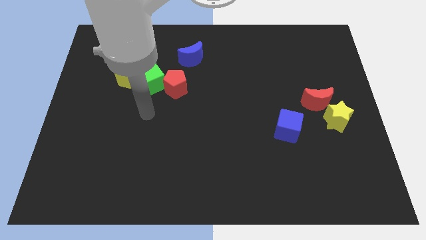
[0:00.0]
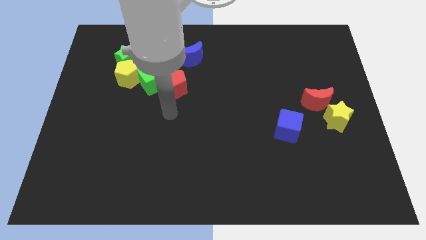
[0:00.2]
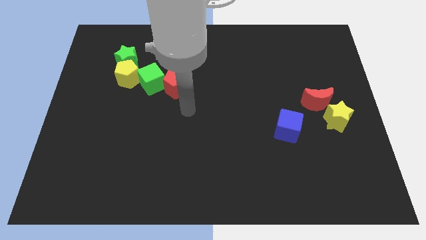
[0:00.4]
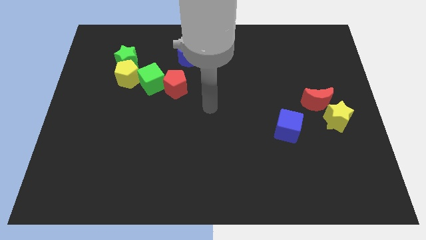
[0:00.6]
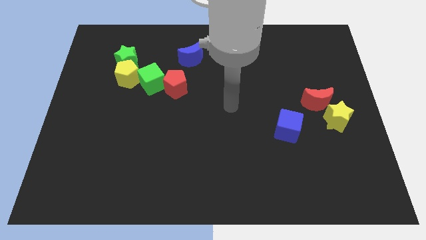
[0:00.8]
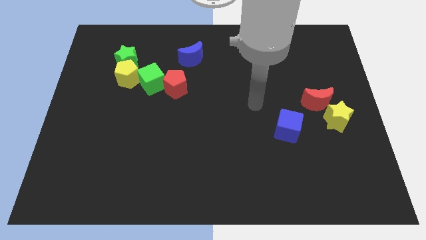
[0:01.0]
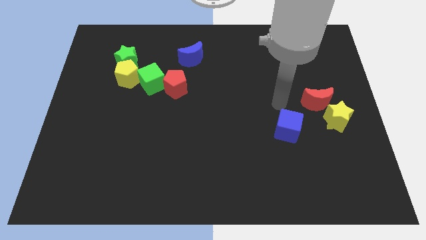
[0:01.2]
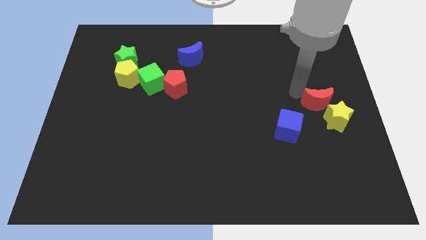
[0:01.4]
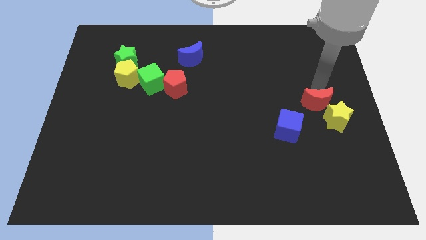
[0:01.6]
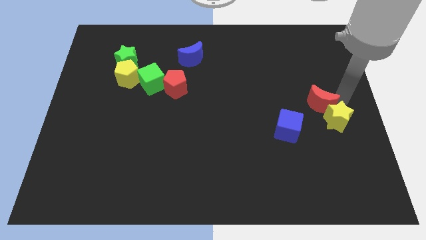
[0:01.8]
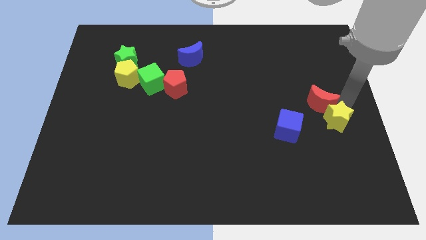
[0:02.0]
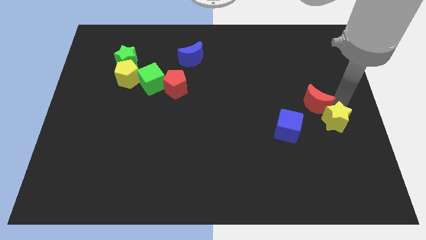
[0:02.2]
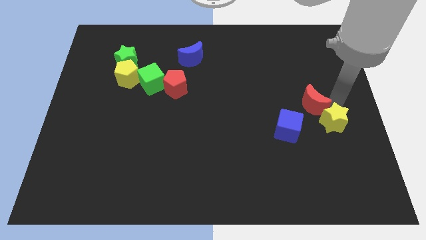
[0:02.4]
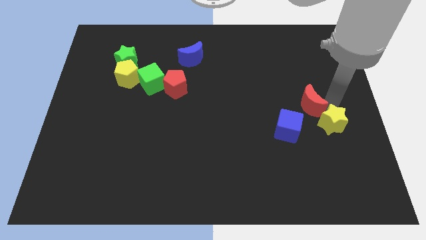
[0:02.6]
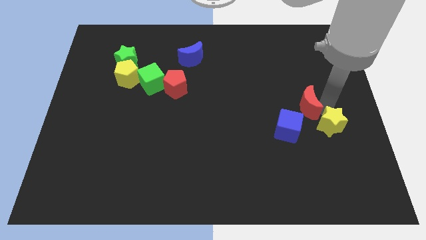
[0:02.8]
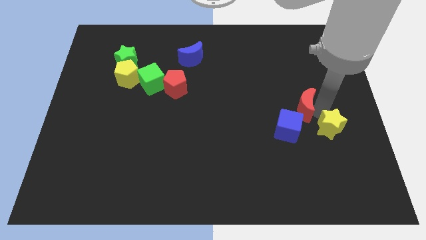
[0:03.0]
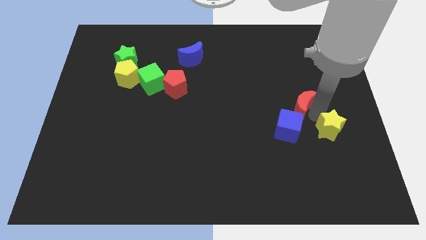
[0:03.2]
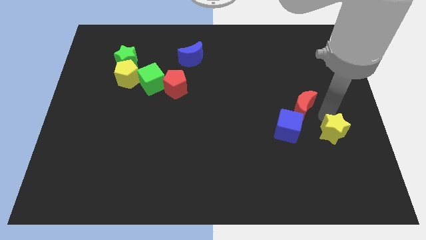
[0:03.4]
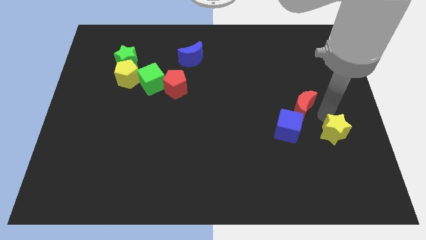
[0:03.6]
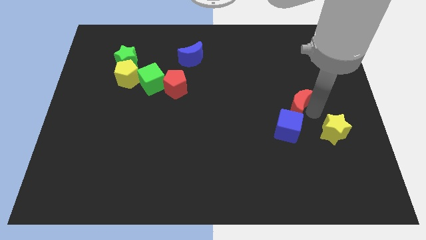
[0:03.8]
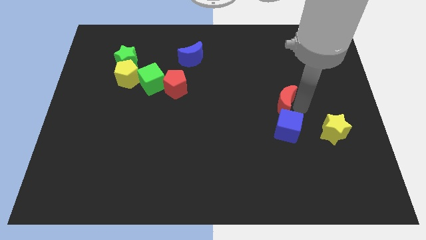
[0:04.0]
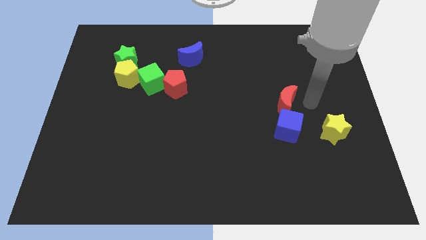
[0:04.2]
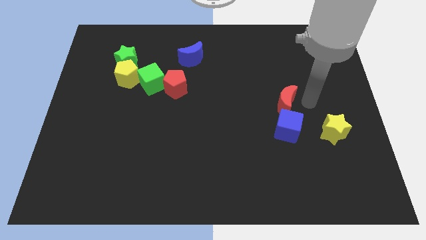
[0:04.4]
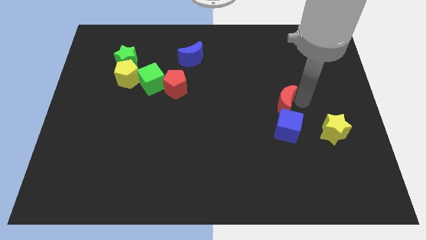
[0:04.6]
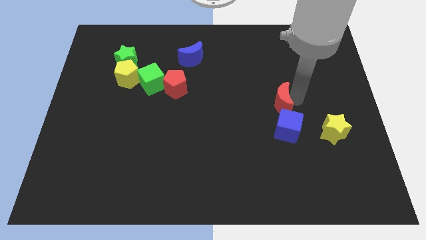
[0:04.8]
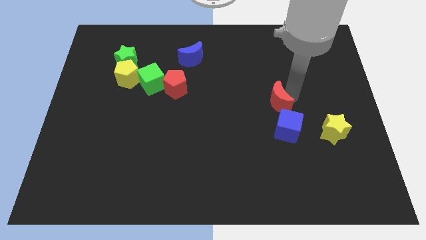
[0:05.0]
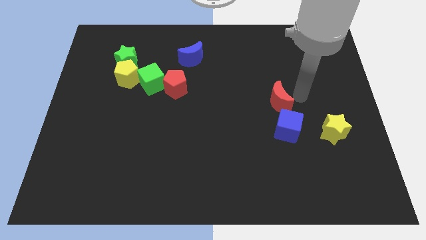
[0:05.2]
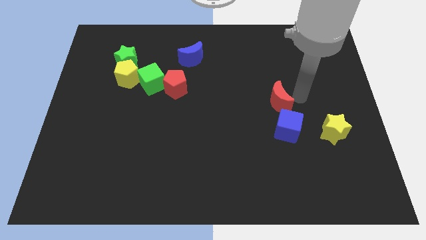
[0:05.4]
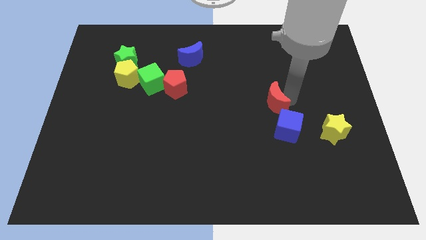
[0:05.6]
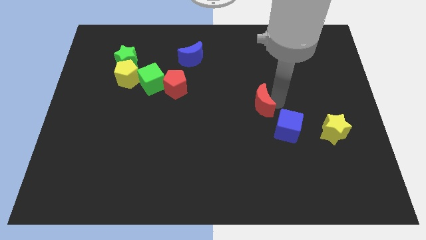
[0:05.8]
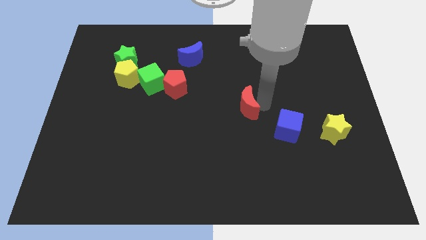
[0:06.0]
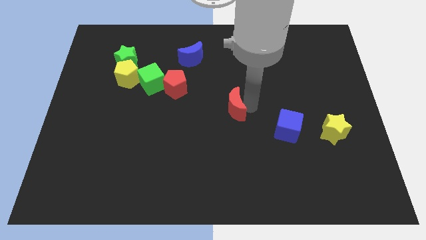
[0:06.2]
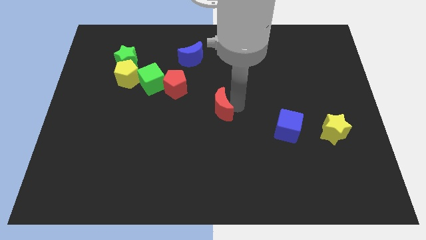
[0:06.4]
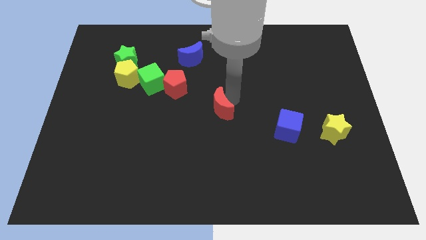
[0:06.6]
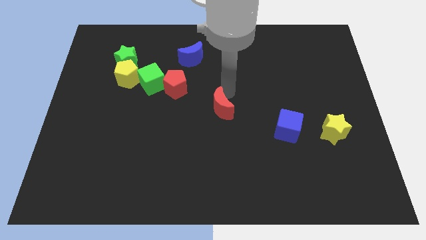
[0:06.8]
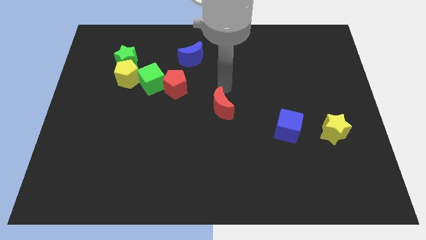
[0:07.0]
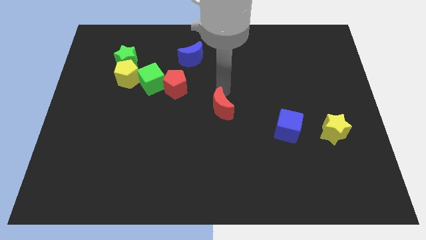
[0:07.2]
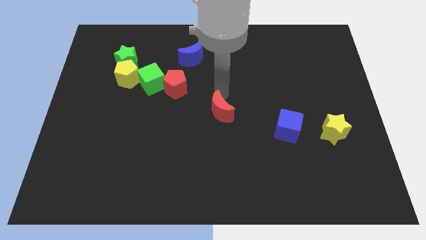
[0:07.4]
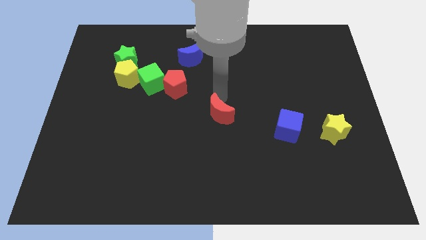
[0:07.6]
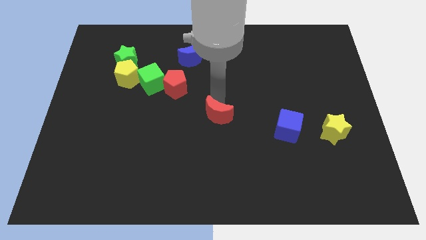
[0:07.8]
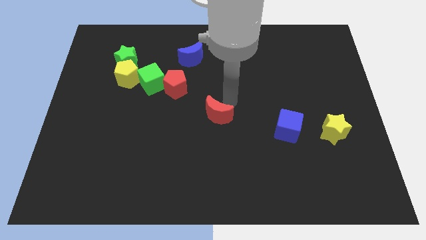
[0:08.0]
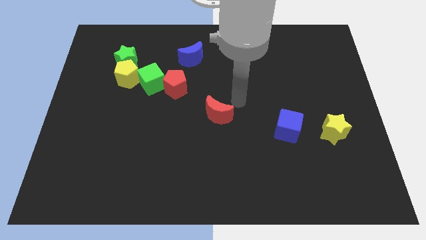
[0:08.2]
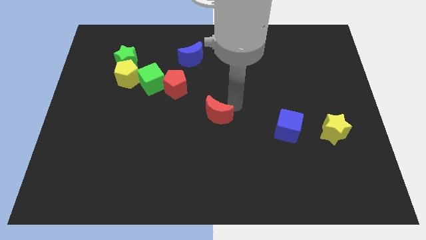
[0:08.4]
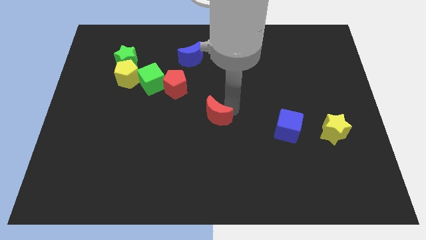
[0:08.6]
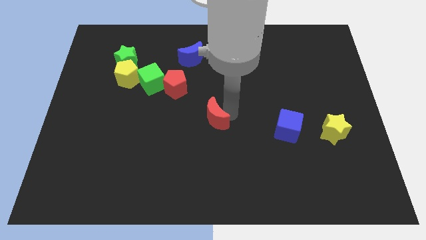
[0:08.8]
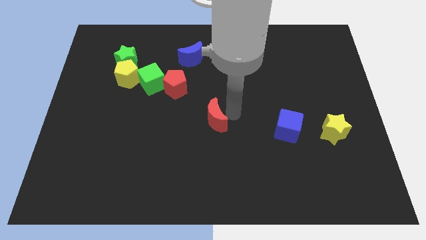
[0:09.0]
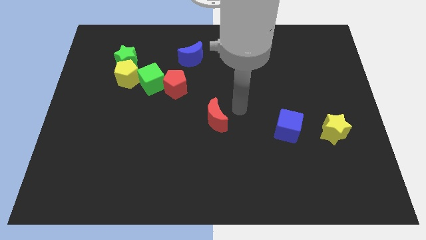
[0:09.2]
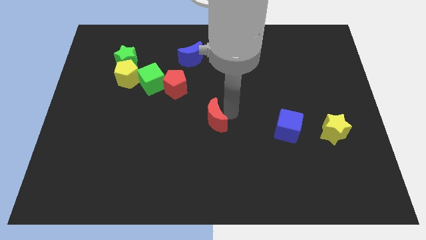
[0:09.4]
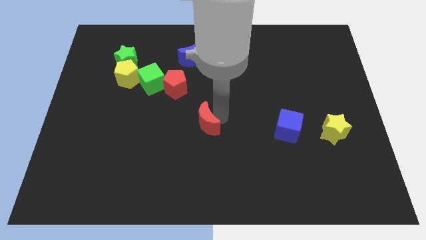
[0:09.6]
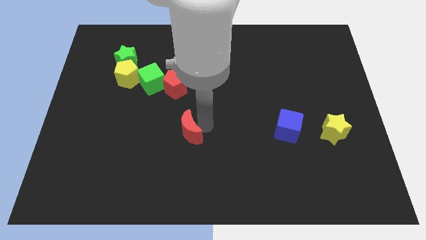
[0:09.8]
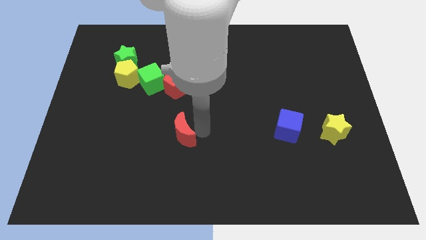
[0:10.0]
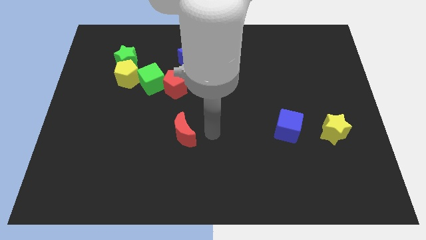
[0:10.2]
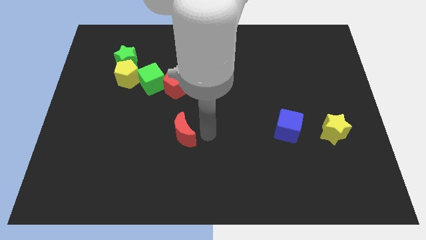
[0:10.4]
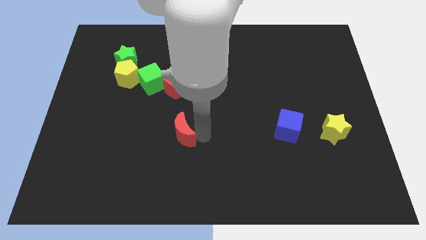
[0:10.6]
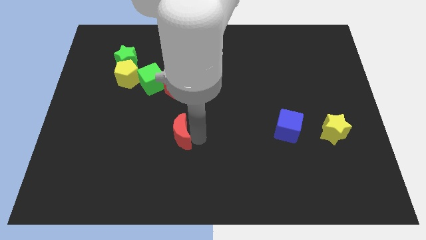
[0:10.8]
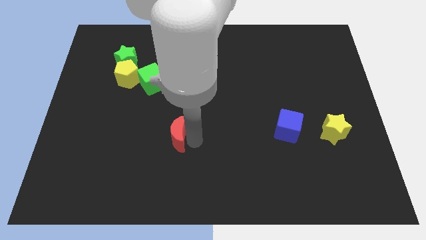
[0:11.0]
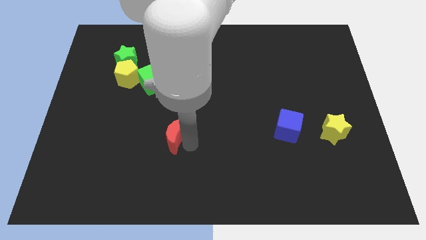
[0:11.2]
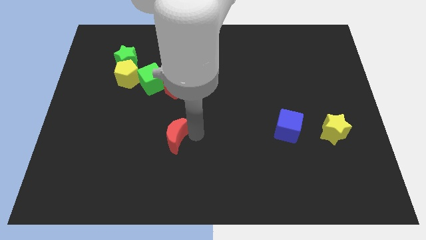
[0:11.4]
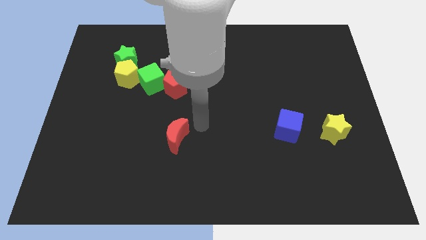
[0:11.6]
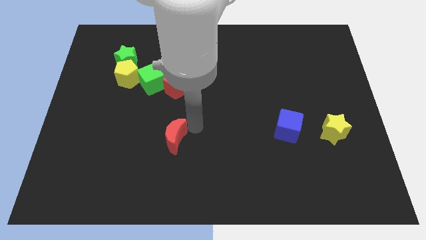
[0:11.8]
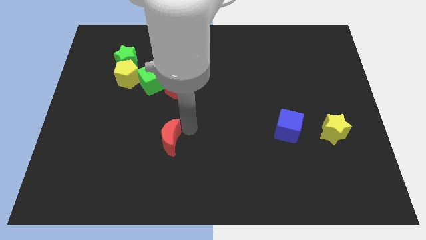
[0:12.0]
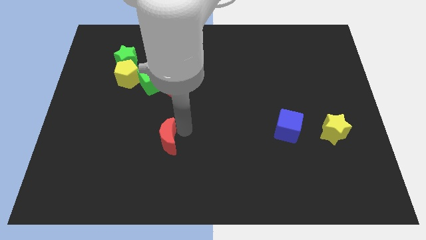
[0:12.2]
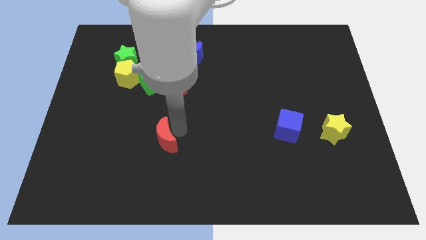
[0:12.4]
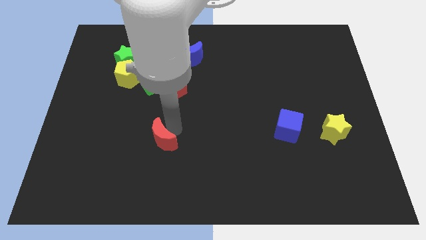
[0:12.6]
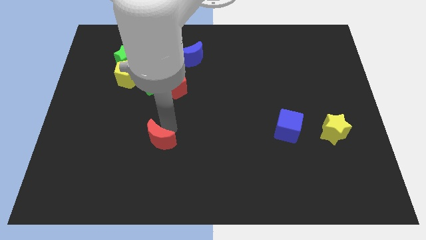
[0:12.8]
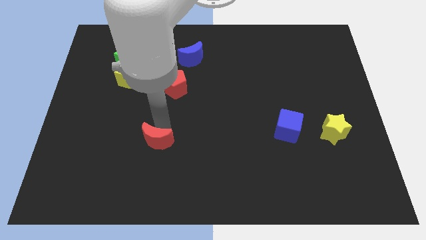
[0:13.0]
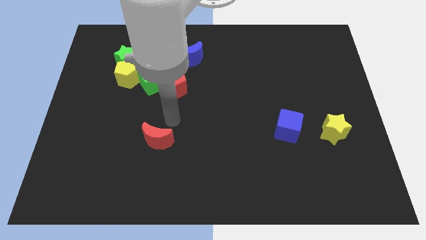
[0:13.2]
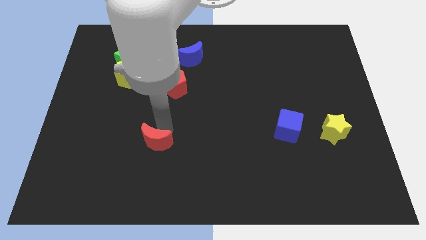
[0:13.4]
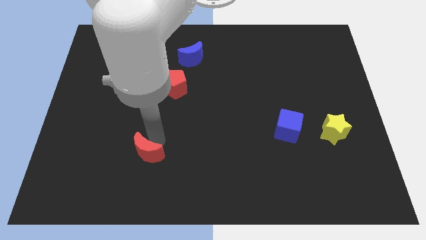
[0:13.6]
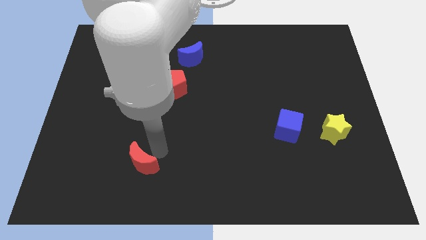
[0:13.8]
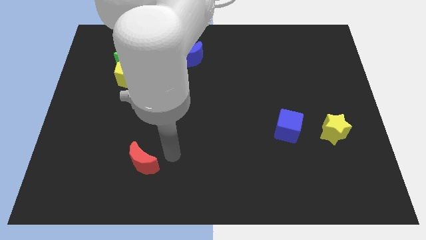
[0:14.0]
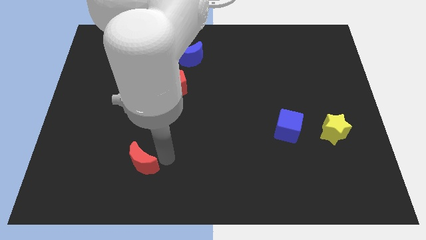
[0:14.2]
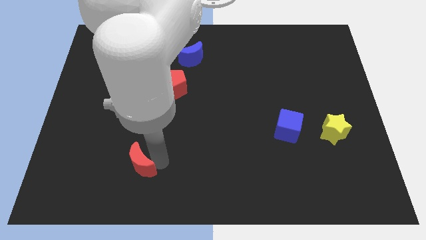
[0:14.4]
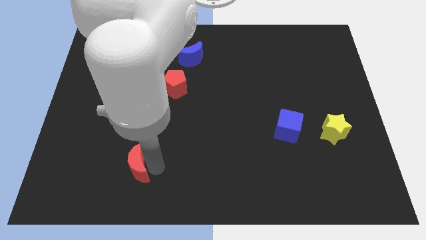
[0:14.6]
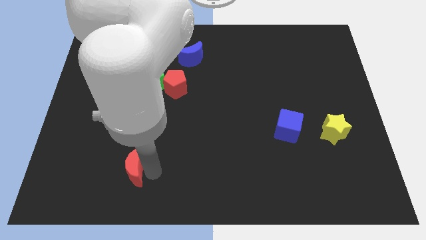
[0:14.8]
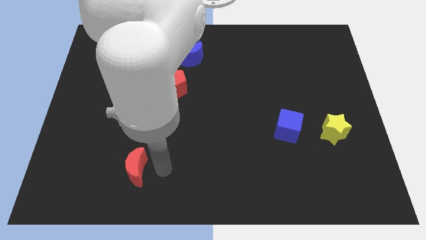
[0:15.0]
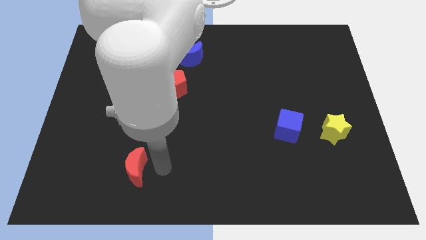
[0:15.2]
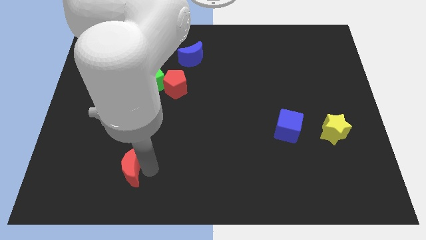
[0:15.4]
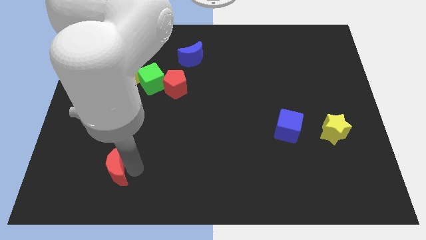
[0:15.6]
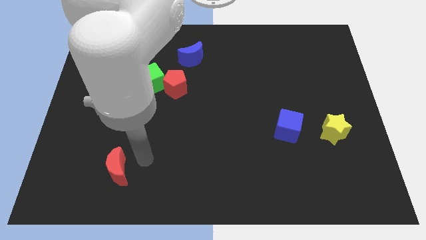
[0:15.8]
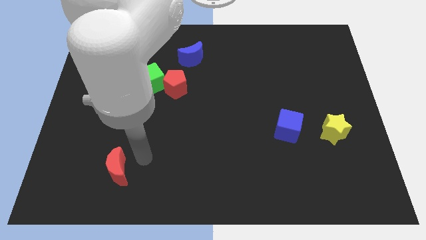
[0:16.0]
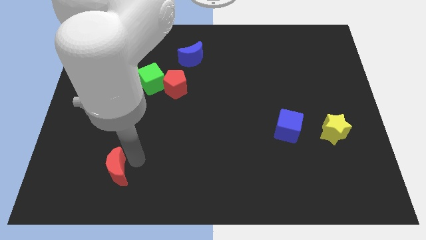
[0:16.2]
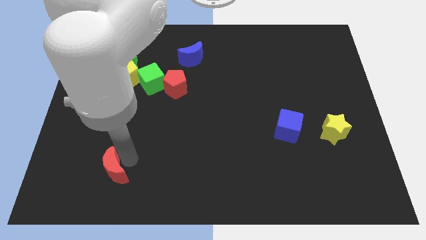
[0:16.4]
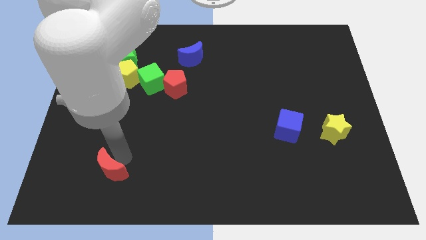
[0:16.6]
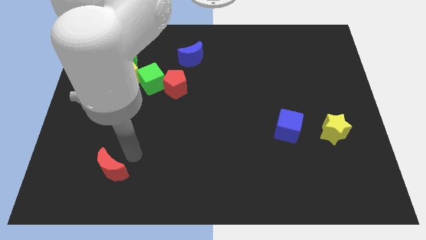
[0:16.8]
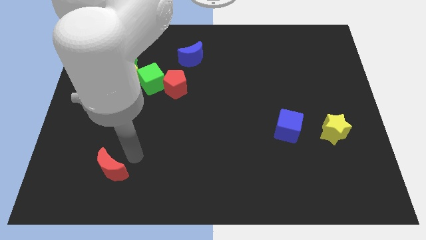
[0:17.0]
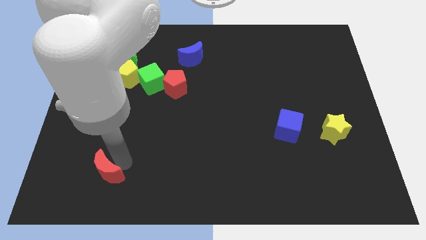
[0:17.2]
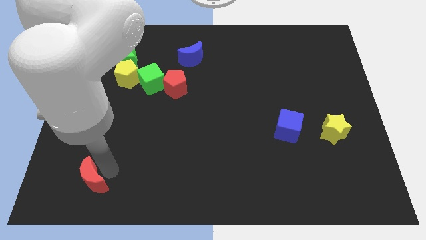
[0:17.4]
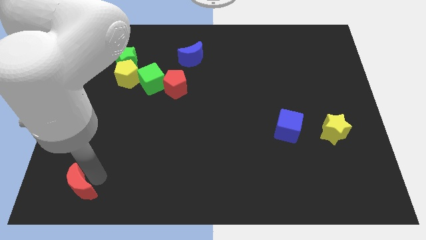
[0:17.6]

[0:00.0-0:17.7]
slide the red moon to the bottom left of the board
